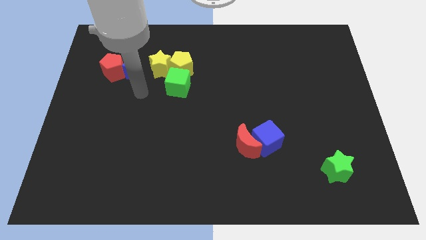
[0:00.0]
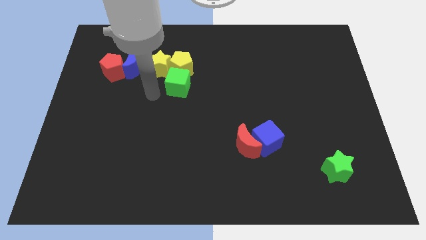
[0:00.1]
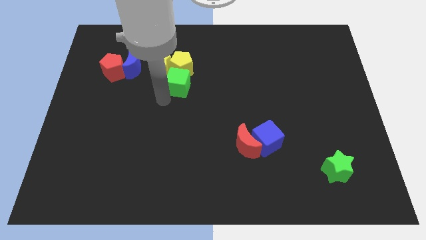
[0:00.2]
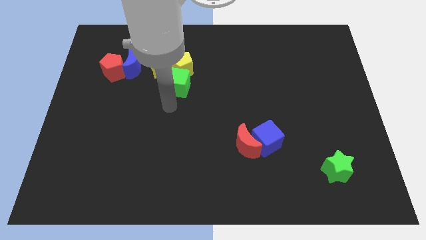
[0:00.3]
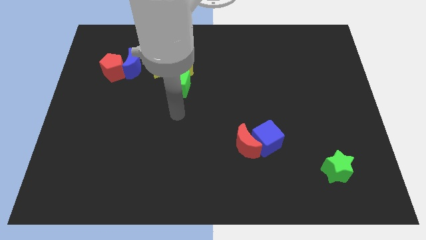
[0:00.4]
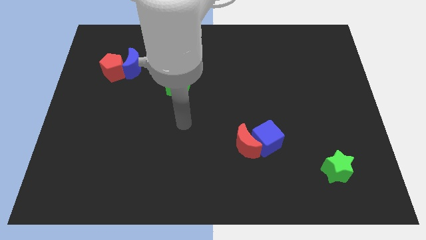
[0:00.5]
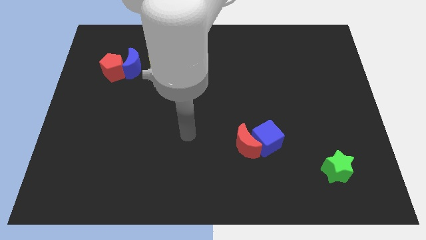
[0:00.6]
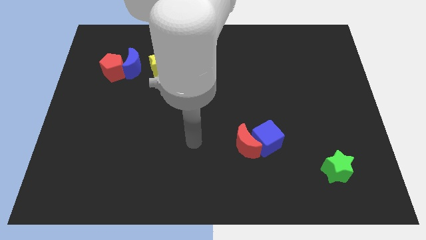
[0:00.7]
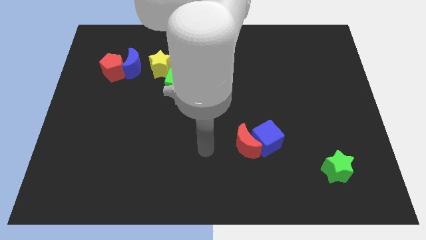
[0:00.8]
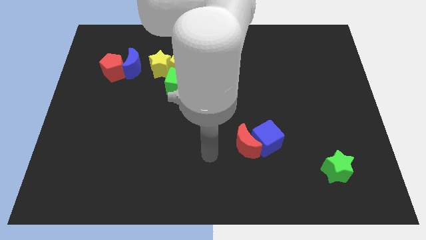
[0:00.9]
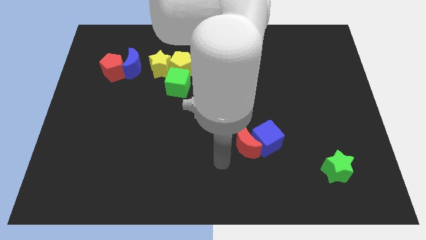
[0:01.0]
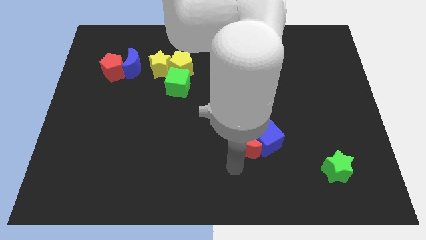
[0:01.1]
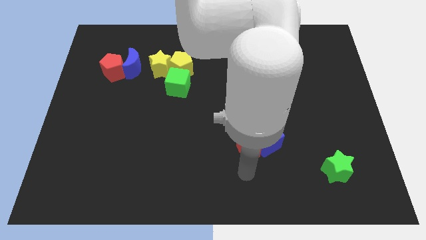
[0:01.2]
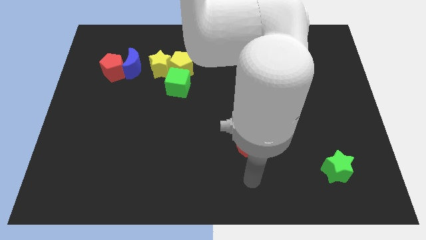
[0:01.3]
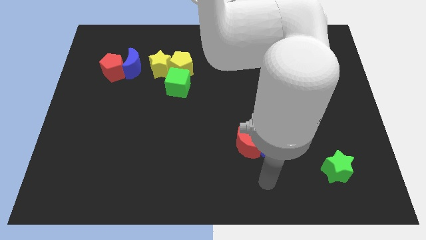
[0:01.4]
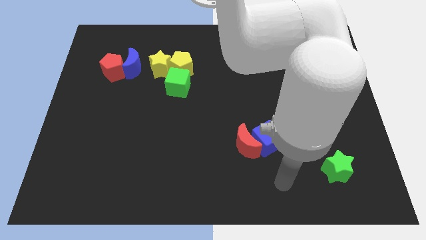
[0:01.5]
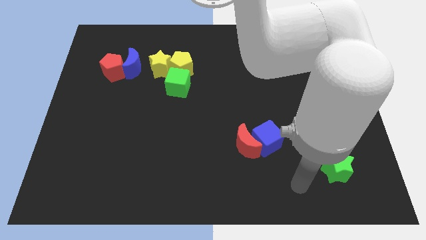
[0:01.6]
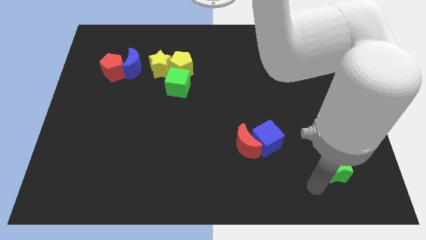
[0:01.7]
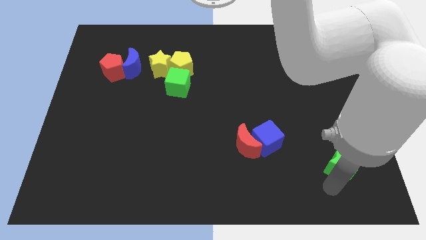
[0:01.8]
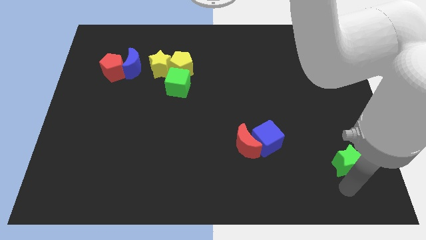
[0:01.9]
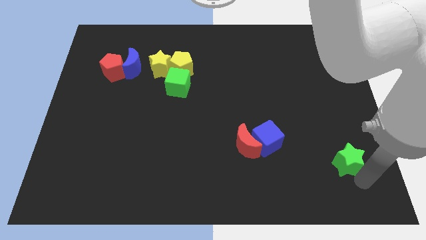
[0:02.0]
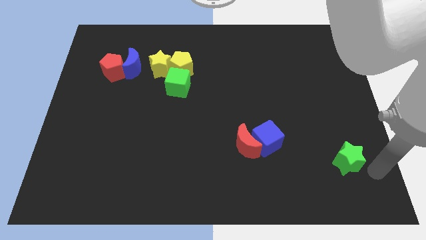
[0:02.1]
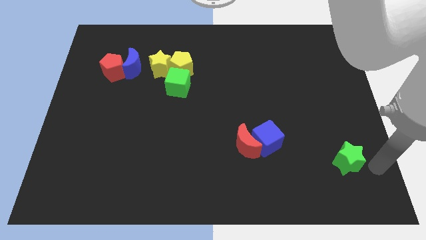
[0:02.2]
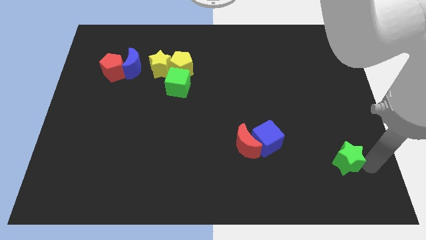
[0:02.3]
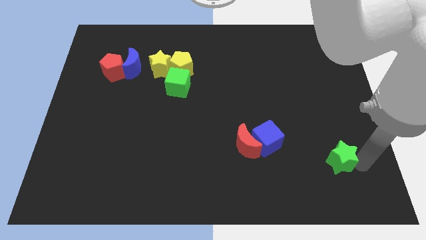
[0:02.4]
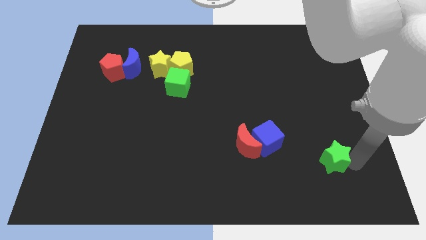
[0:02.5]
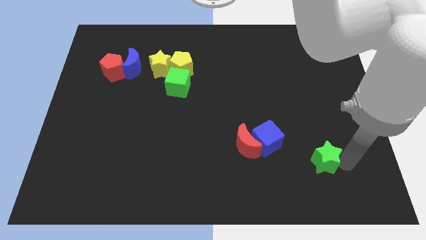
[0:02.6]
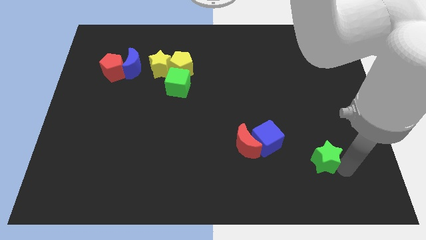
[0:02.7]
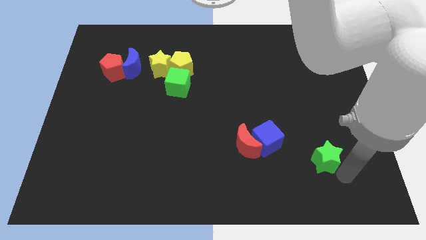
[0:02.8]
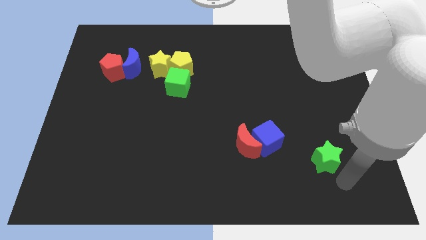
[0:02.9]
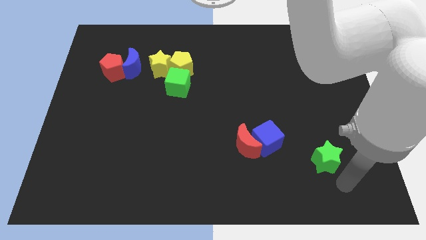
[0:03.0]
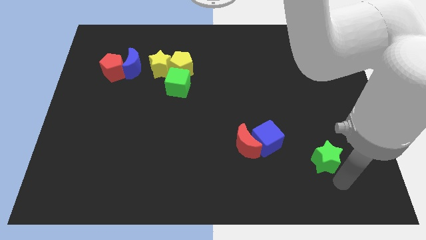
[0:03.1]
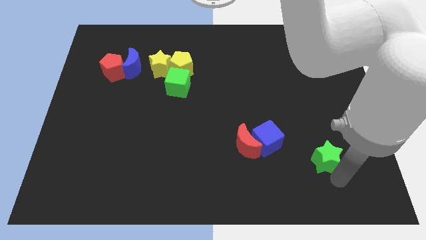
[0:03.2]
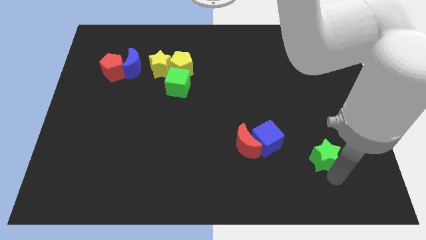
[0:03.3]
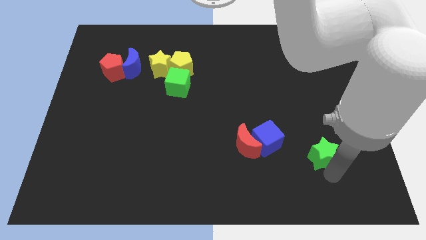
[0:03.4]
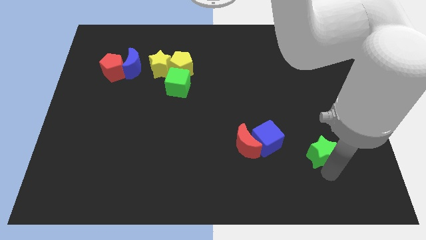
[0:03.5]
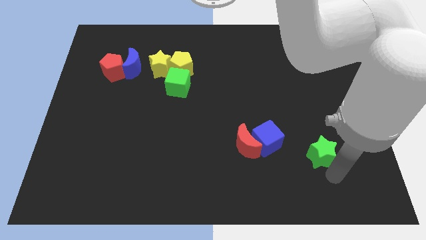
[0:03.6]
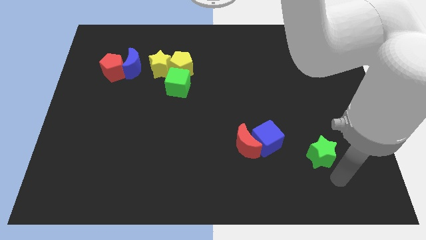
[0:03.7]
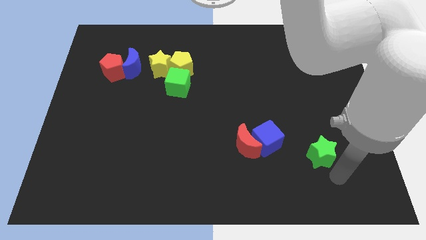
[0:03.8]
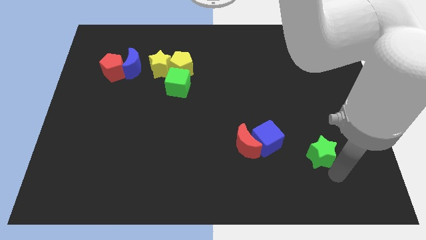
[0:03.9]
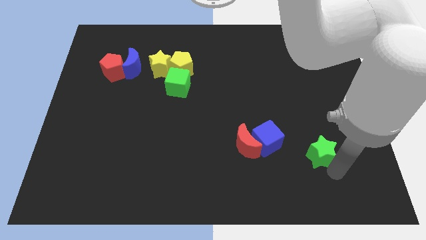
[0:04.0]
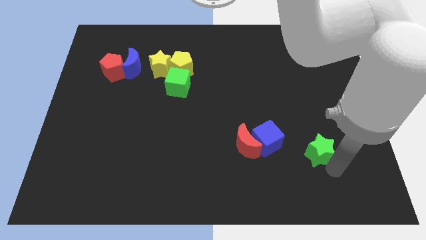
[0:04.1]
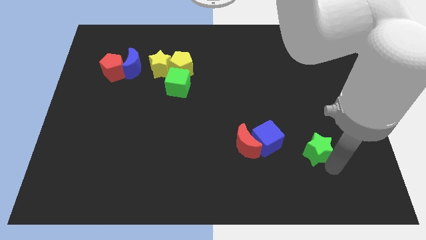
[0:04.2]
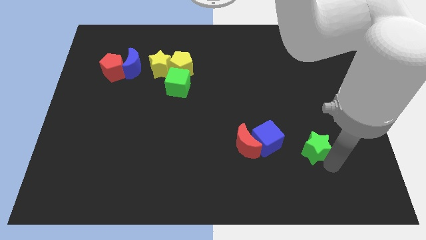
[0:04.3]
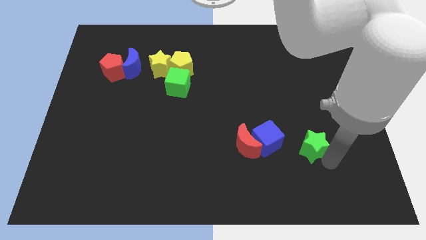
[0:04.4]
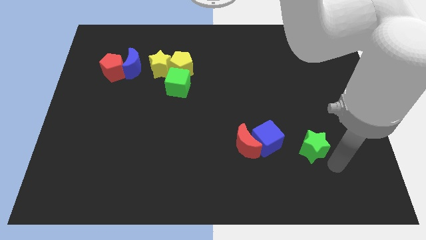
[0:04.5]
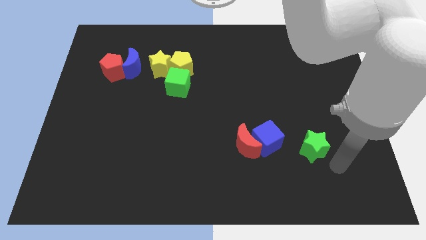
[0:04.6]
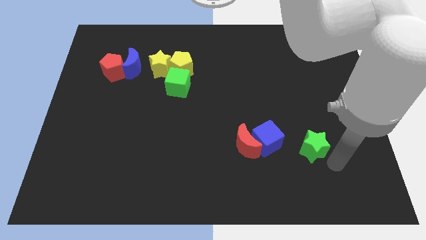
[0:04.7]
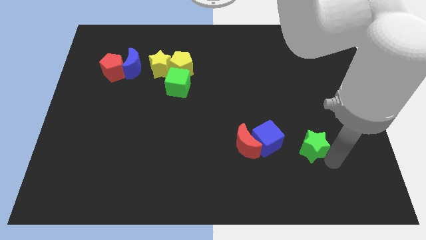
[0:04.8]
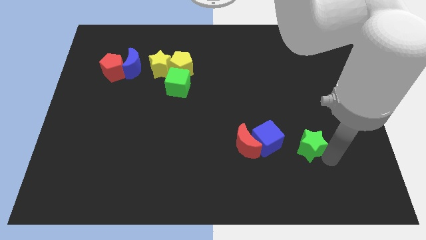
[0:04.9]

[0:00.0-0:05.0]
slightly slide the green star upwards and left diagonally

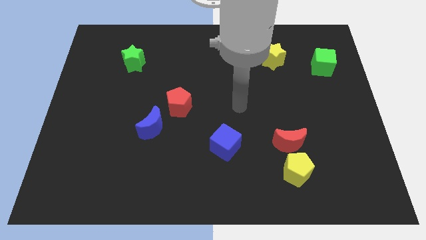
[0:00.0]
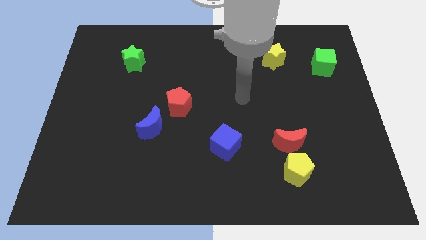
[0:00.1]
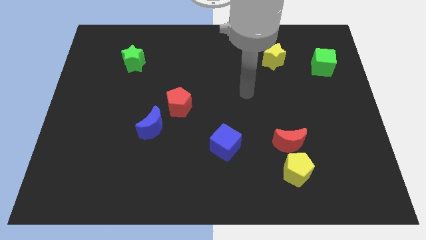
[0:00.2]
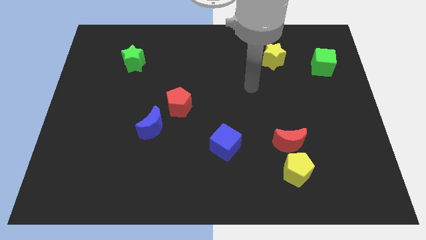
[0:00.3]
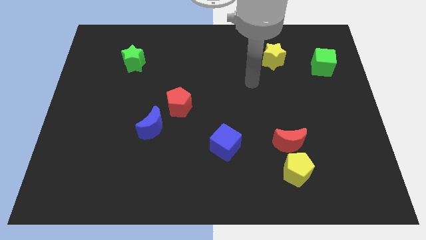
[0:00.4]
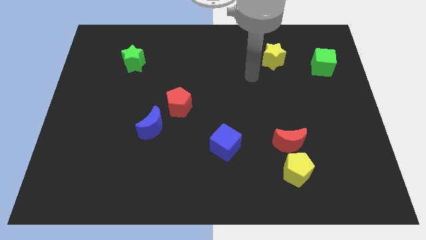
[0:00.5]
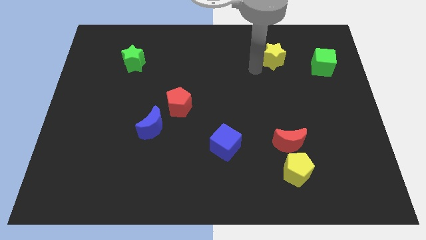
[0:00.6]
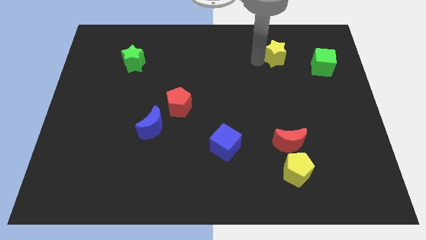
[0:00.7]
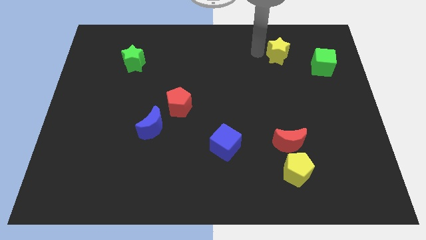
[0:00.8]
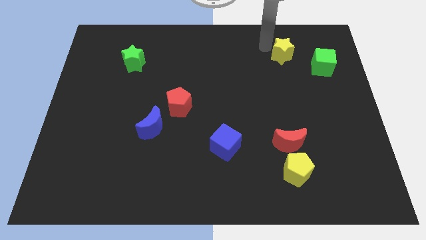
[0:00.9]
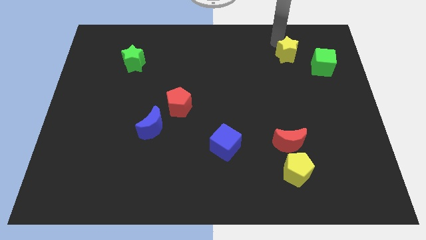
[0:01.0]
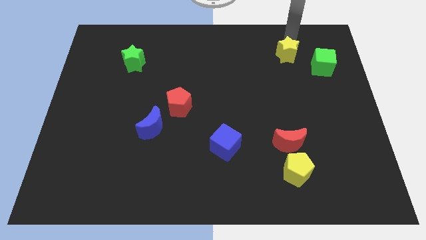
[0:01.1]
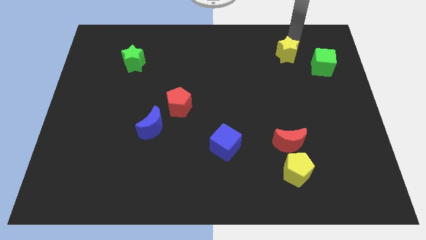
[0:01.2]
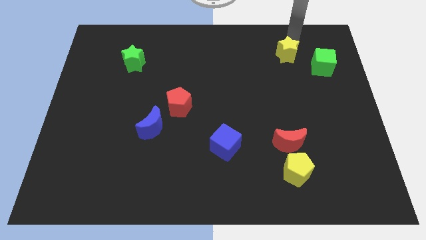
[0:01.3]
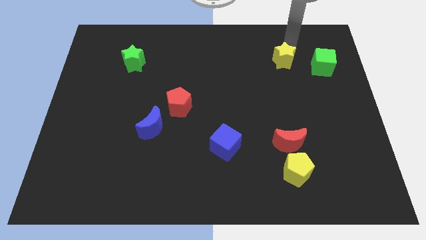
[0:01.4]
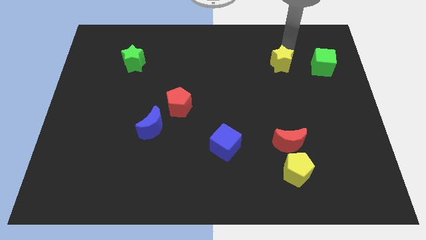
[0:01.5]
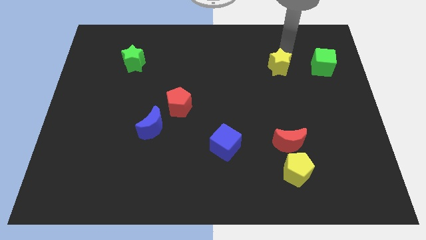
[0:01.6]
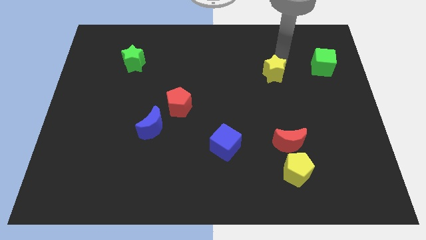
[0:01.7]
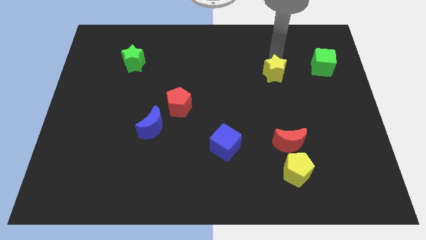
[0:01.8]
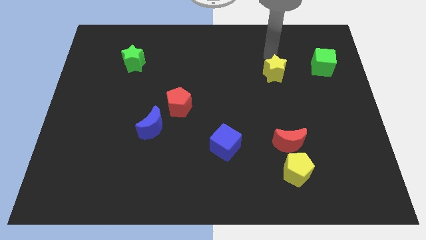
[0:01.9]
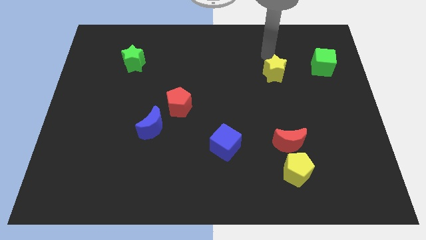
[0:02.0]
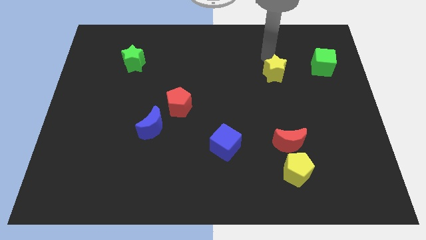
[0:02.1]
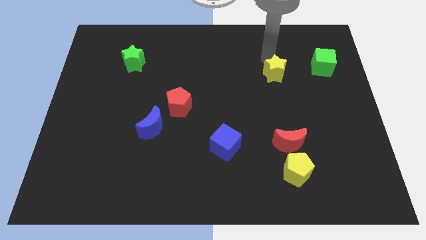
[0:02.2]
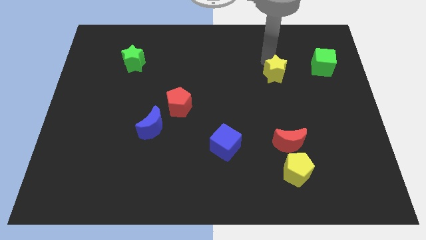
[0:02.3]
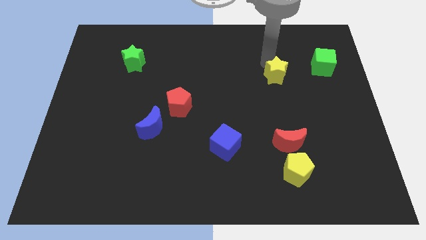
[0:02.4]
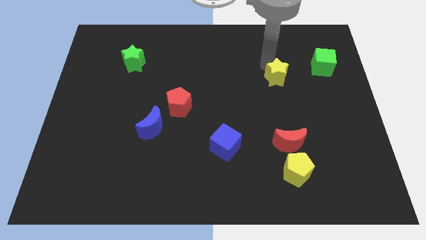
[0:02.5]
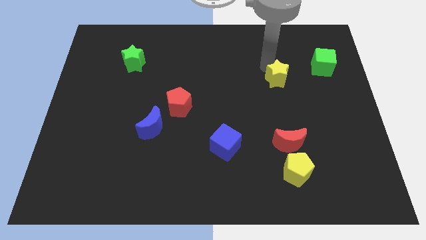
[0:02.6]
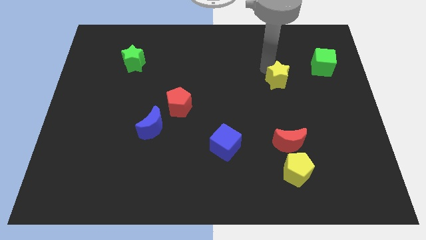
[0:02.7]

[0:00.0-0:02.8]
move the yellow star down a little

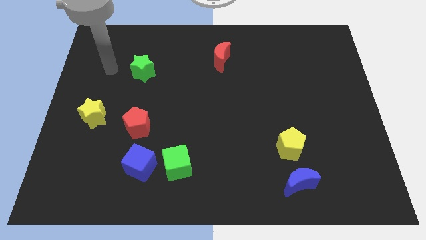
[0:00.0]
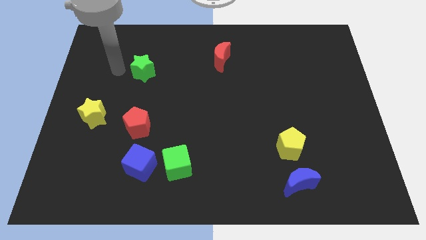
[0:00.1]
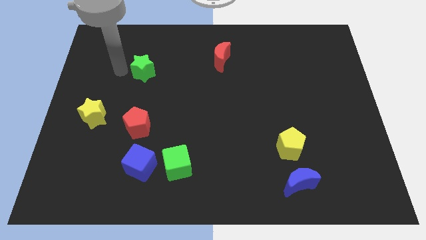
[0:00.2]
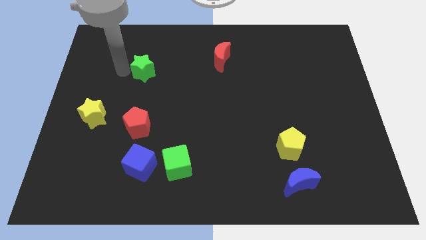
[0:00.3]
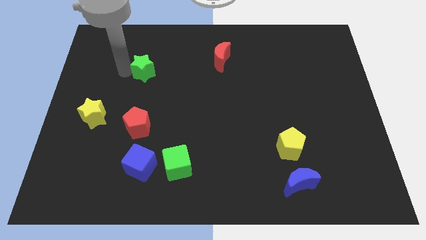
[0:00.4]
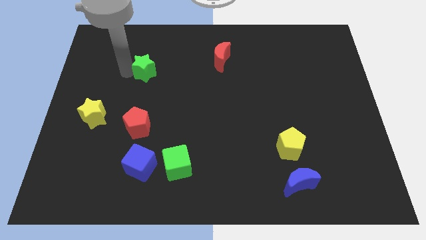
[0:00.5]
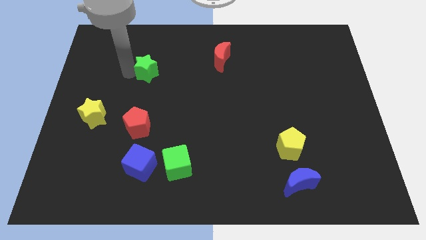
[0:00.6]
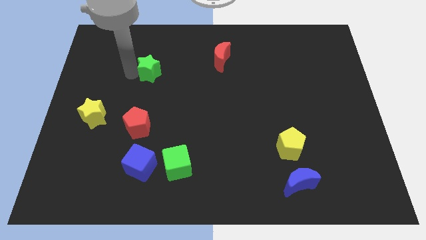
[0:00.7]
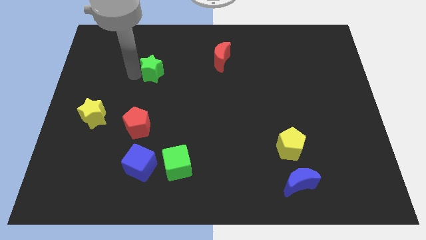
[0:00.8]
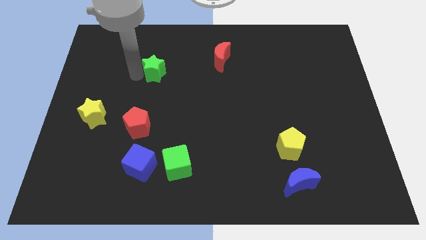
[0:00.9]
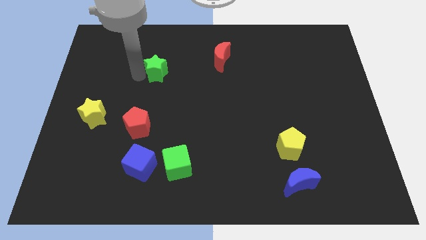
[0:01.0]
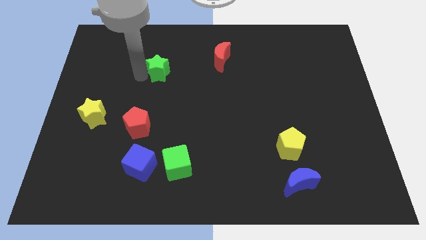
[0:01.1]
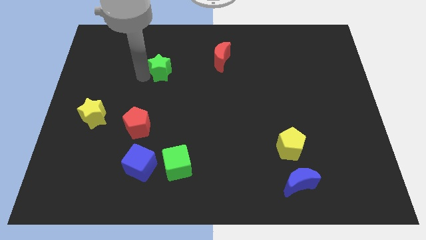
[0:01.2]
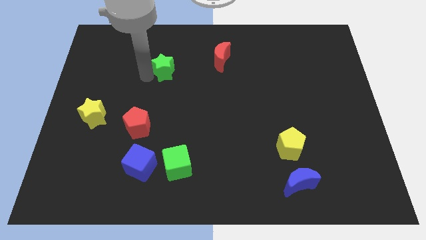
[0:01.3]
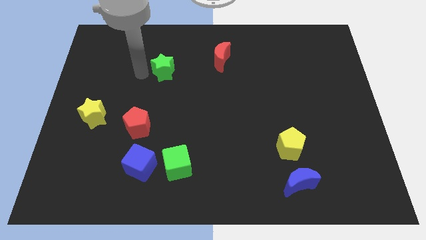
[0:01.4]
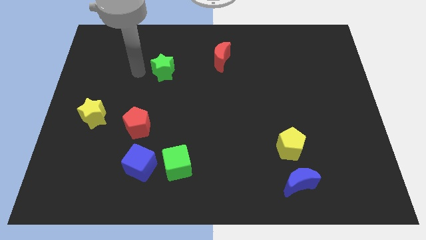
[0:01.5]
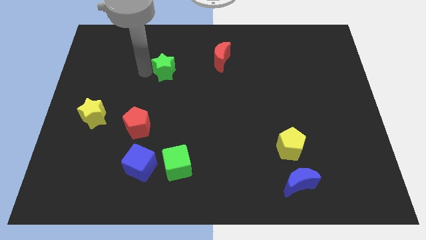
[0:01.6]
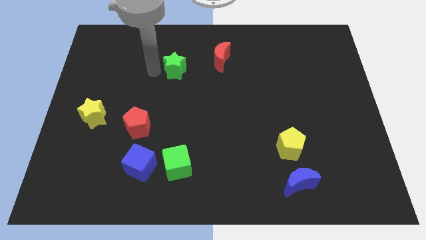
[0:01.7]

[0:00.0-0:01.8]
push the green star to the right slightly
